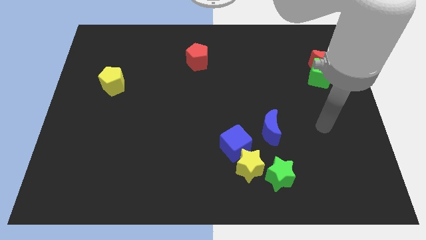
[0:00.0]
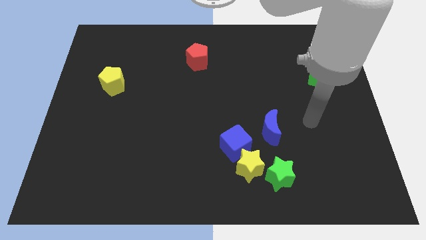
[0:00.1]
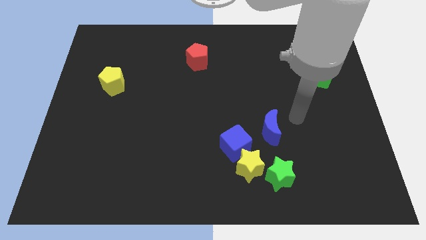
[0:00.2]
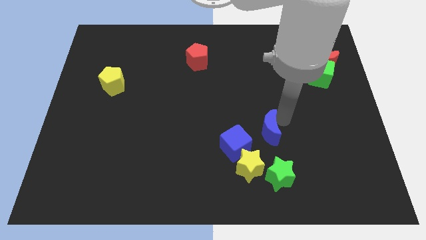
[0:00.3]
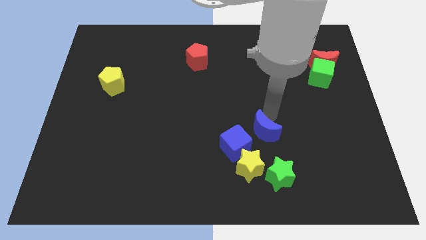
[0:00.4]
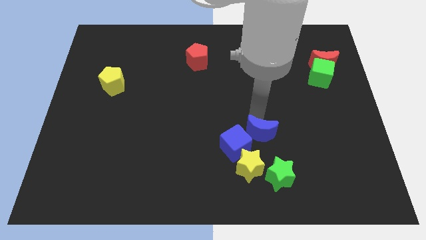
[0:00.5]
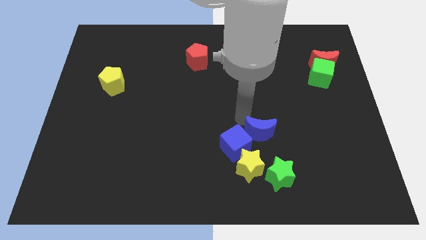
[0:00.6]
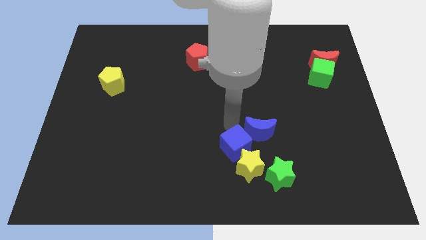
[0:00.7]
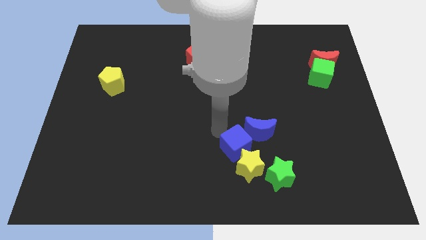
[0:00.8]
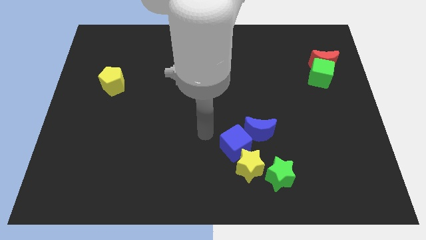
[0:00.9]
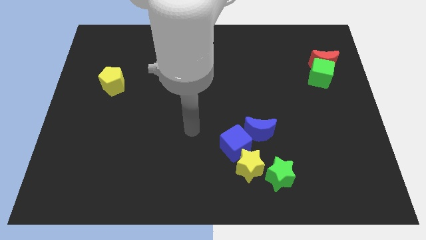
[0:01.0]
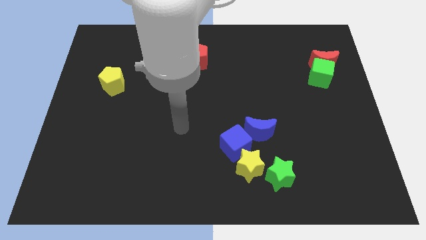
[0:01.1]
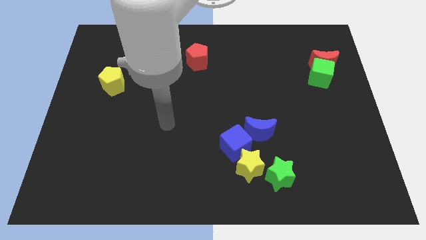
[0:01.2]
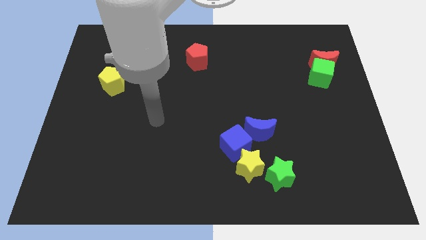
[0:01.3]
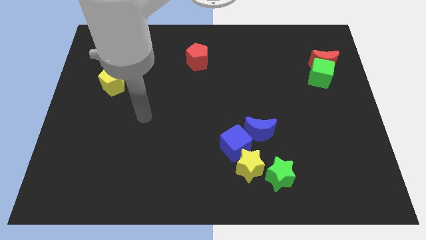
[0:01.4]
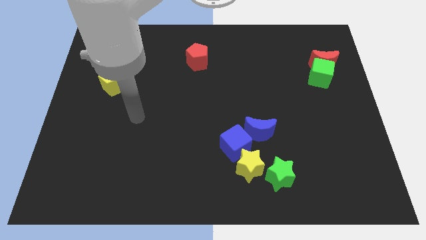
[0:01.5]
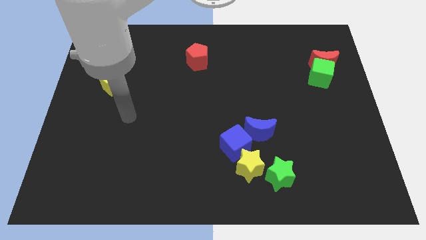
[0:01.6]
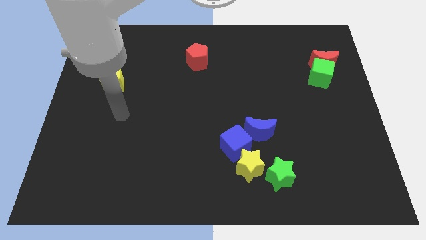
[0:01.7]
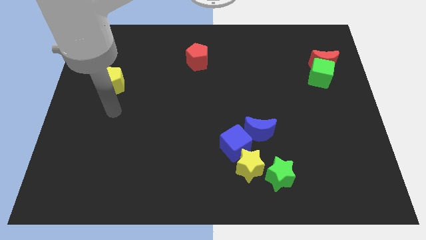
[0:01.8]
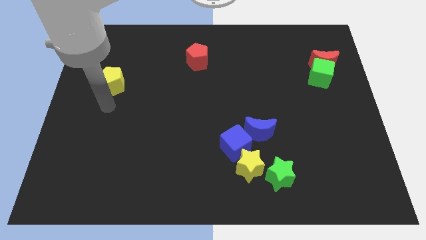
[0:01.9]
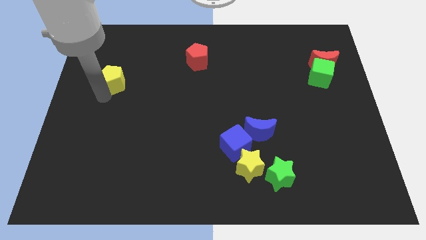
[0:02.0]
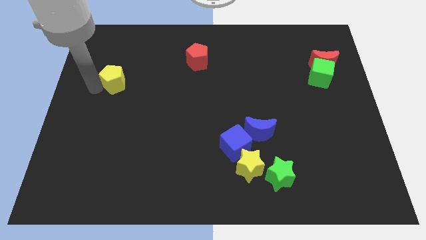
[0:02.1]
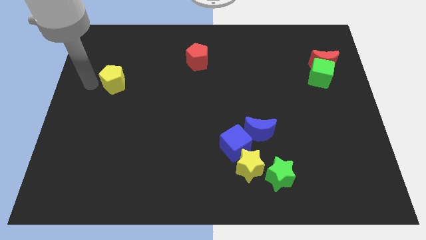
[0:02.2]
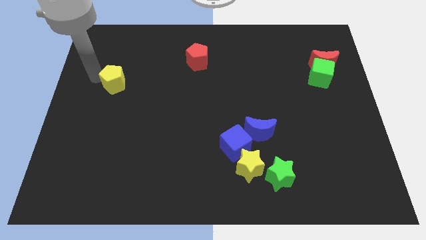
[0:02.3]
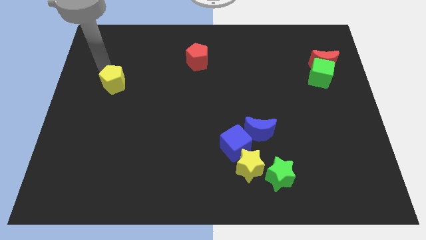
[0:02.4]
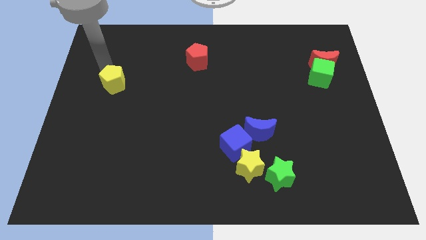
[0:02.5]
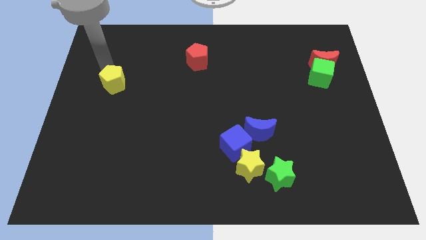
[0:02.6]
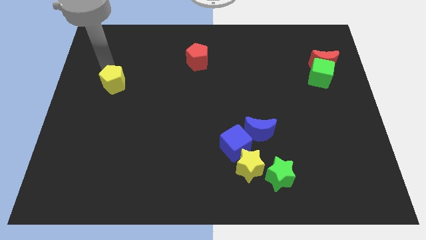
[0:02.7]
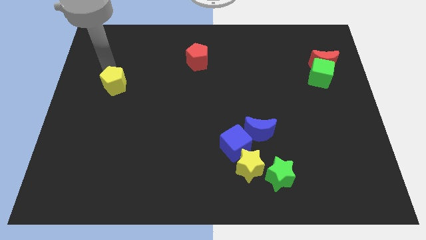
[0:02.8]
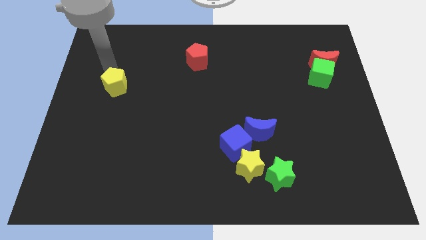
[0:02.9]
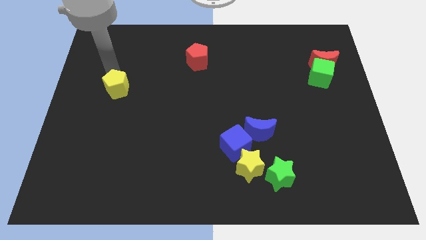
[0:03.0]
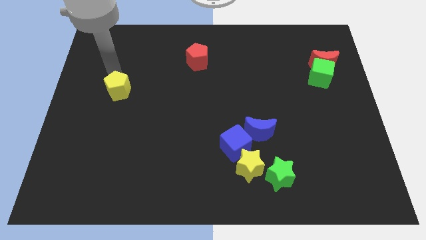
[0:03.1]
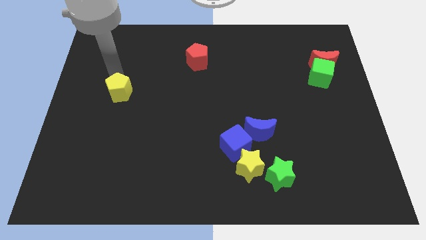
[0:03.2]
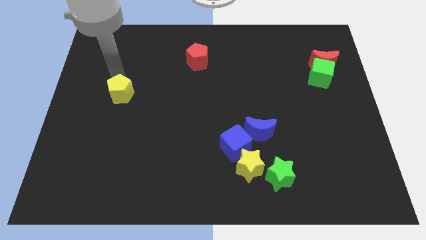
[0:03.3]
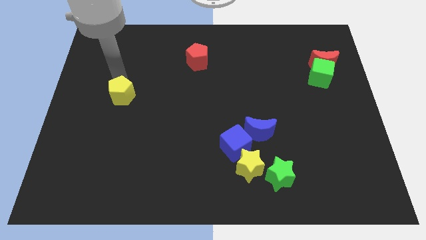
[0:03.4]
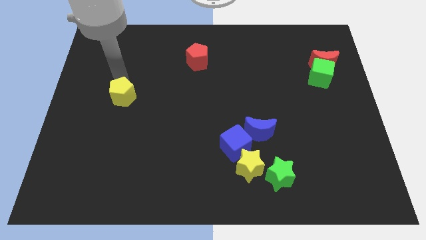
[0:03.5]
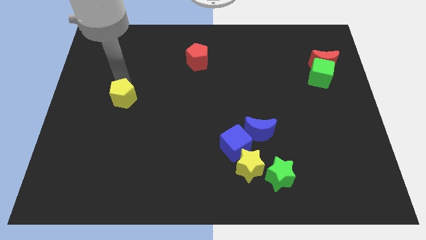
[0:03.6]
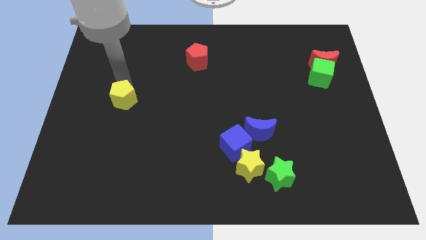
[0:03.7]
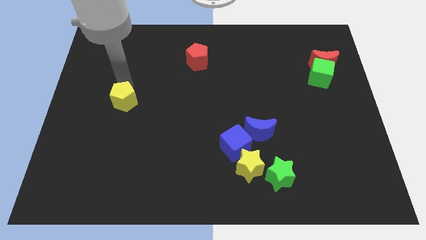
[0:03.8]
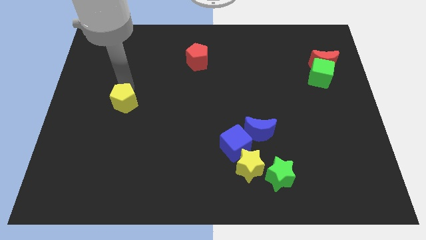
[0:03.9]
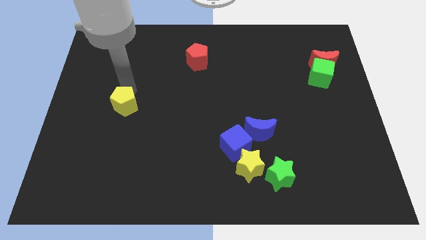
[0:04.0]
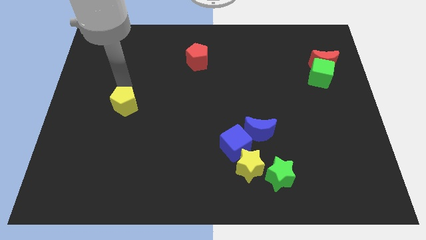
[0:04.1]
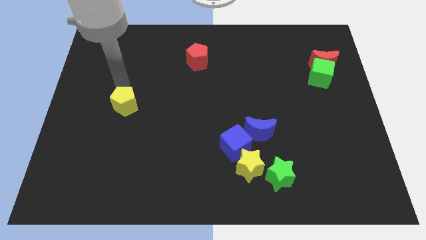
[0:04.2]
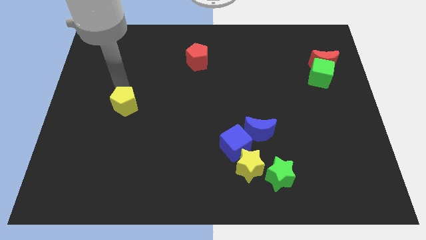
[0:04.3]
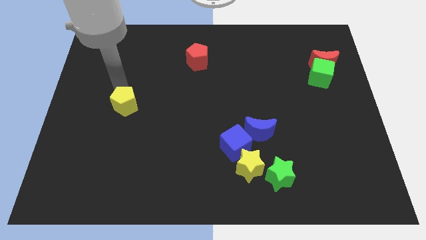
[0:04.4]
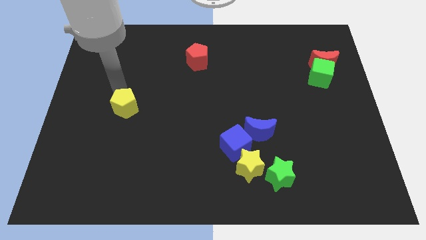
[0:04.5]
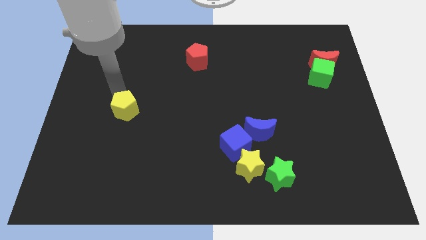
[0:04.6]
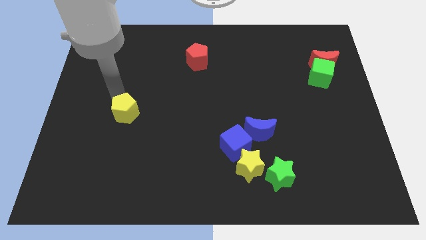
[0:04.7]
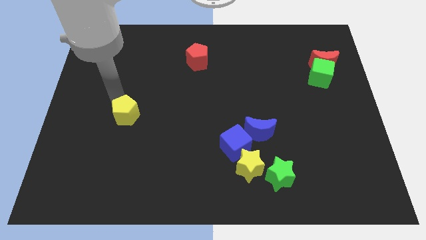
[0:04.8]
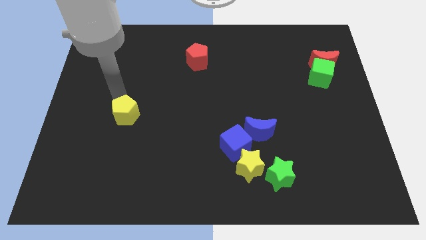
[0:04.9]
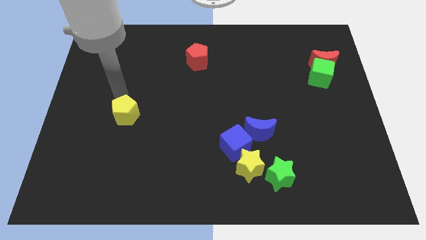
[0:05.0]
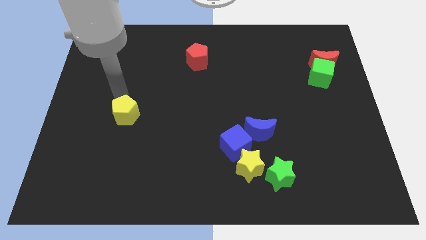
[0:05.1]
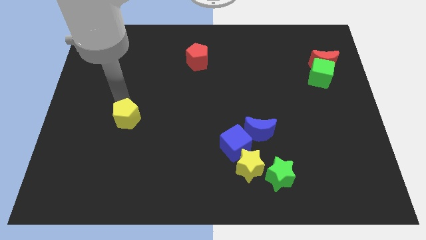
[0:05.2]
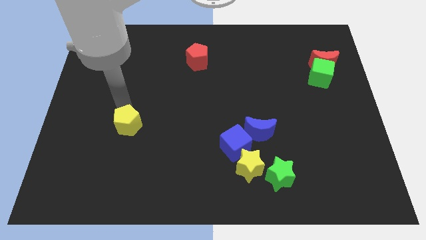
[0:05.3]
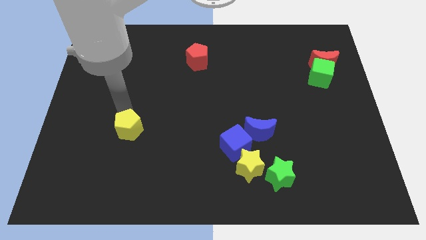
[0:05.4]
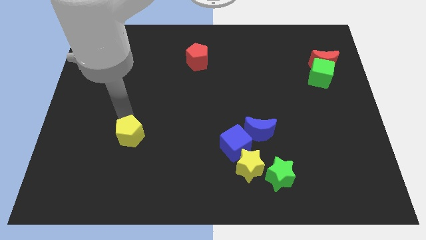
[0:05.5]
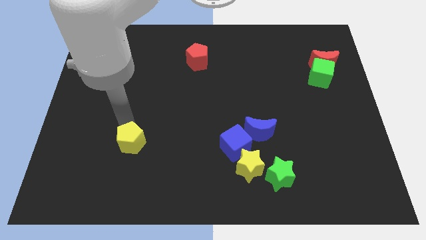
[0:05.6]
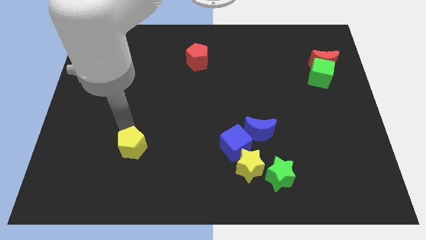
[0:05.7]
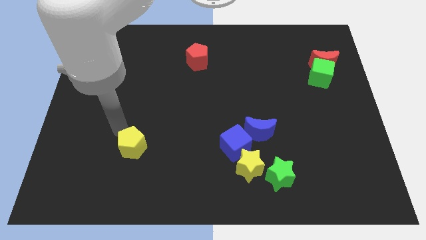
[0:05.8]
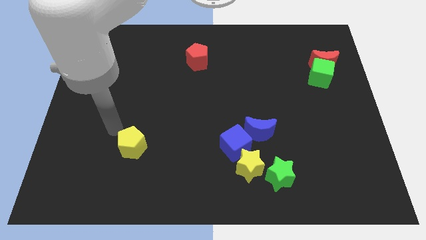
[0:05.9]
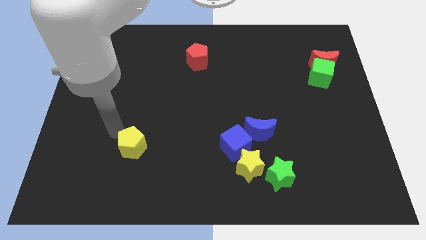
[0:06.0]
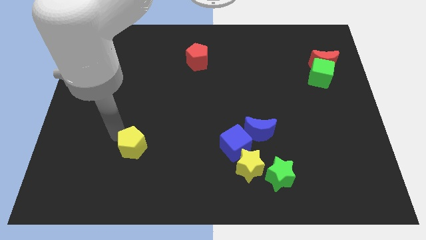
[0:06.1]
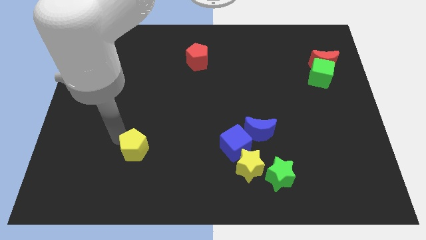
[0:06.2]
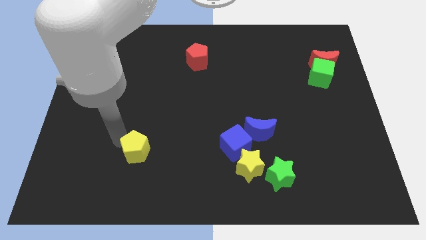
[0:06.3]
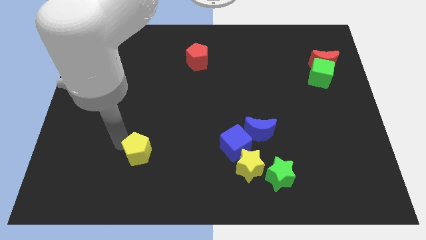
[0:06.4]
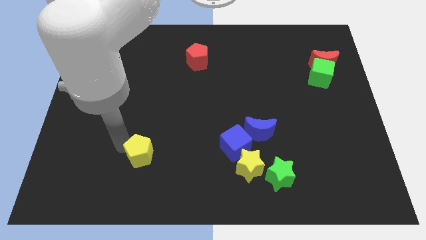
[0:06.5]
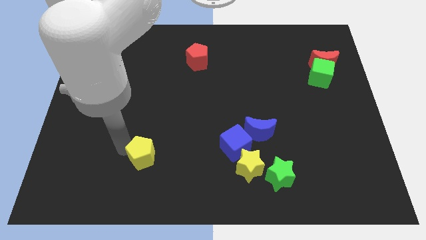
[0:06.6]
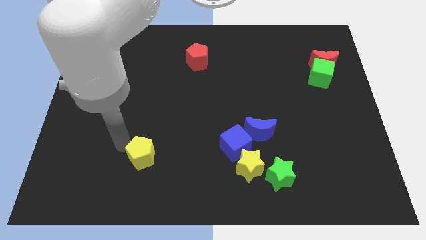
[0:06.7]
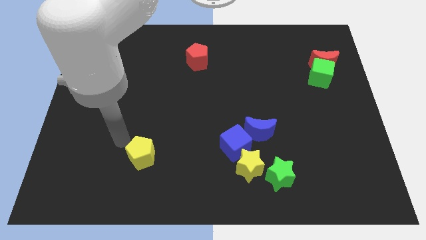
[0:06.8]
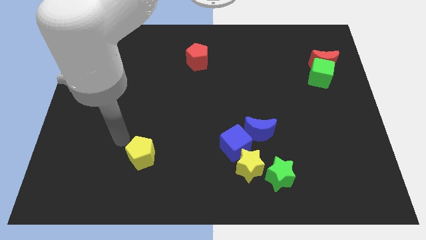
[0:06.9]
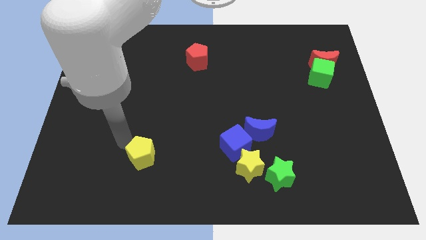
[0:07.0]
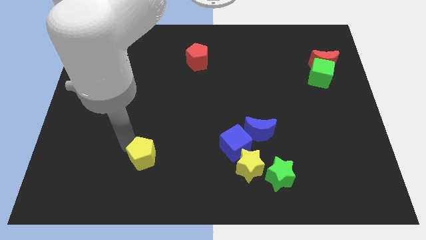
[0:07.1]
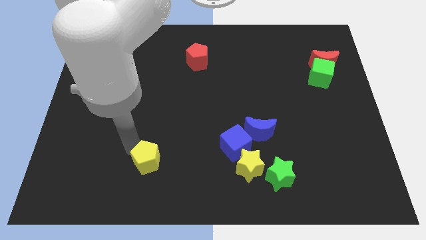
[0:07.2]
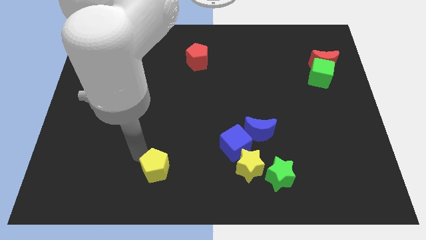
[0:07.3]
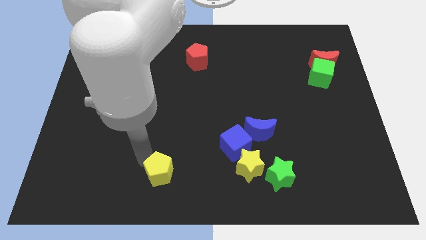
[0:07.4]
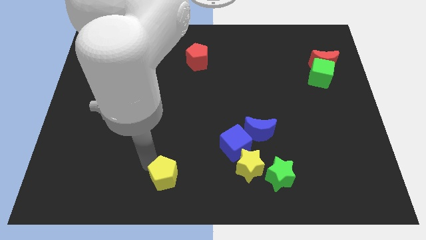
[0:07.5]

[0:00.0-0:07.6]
push the yellow pentagon to the bottom

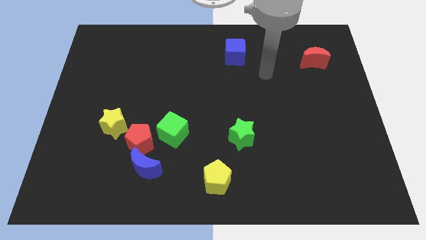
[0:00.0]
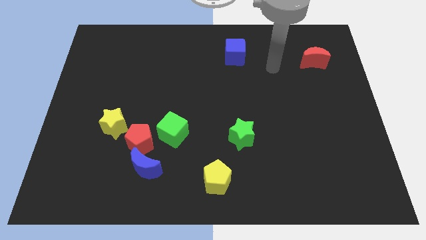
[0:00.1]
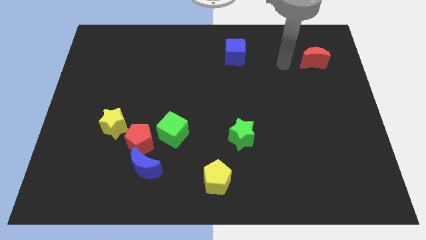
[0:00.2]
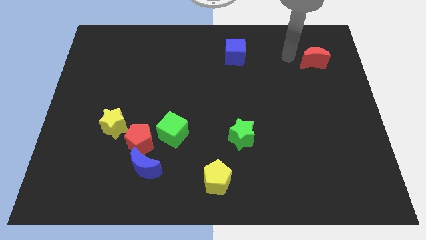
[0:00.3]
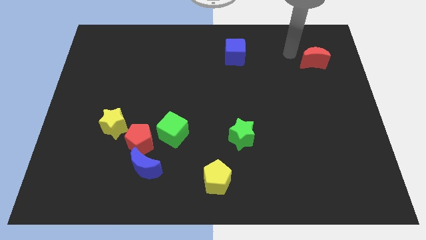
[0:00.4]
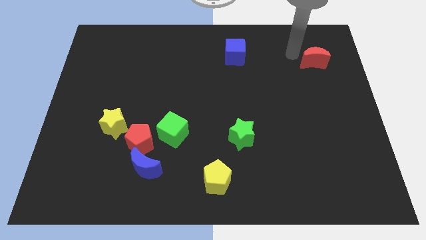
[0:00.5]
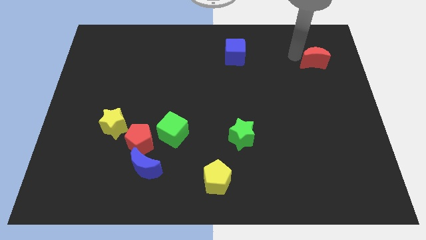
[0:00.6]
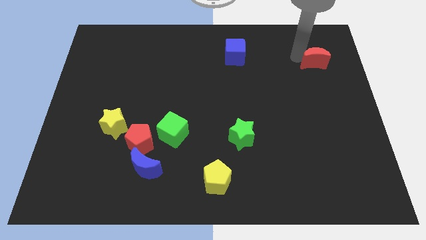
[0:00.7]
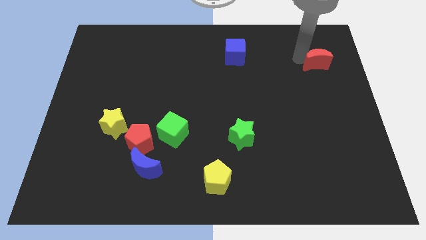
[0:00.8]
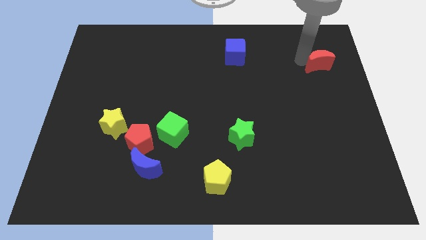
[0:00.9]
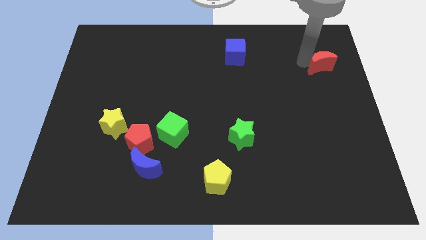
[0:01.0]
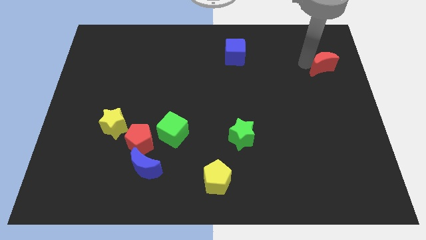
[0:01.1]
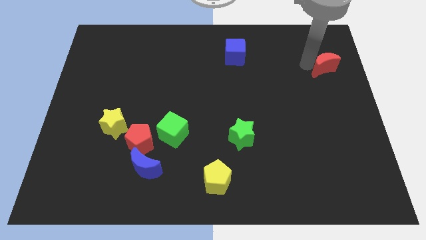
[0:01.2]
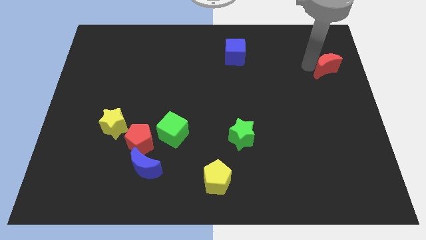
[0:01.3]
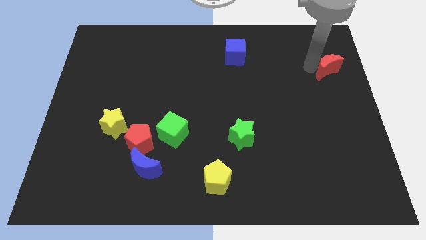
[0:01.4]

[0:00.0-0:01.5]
slide the red moon to the right side of the board
